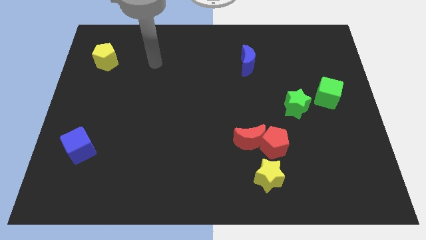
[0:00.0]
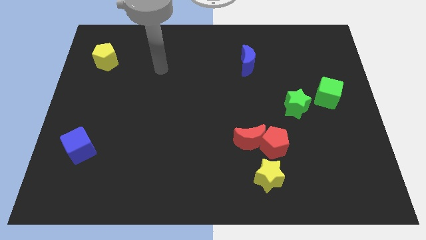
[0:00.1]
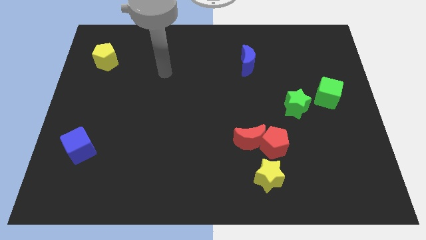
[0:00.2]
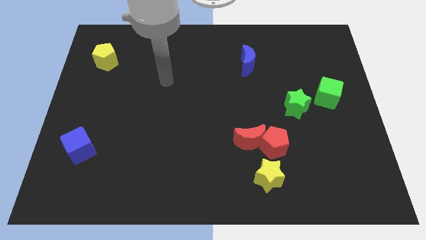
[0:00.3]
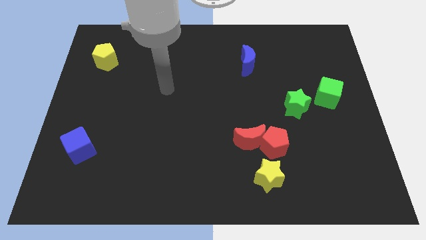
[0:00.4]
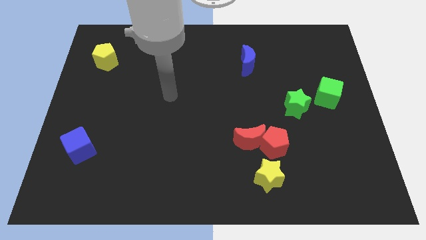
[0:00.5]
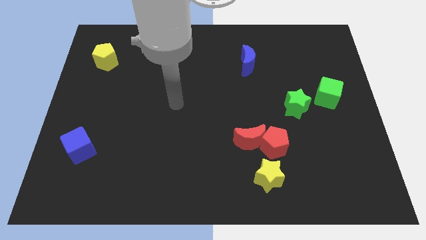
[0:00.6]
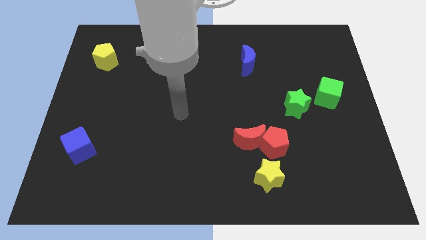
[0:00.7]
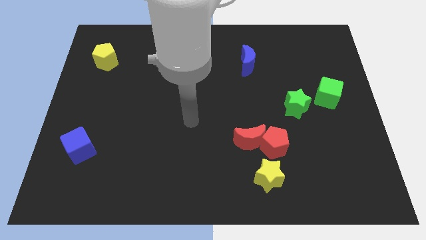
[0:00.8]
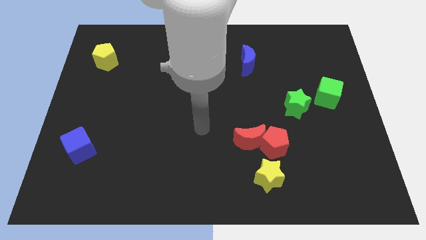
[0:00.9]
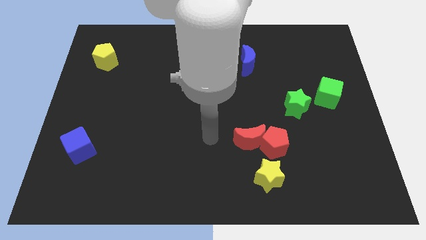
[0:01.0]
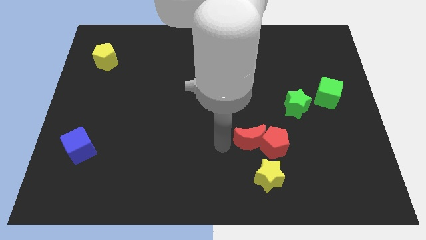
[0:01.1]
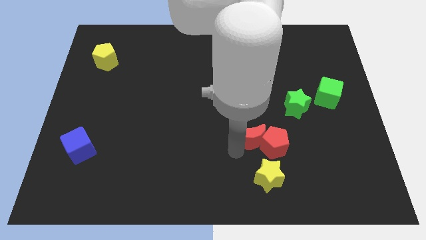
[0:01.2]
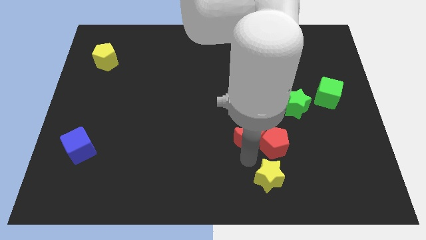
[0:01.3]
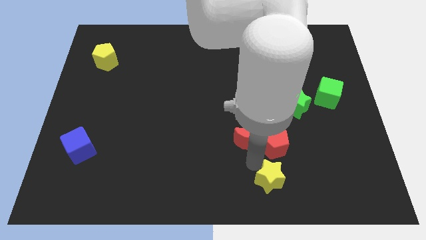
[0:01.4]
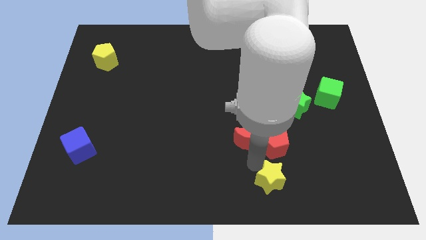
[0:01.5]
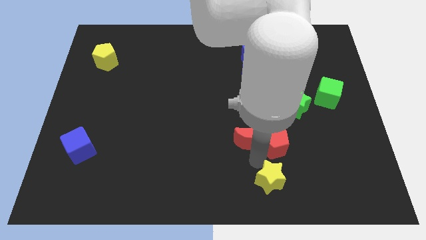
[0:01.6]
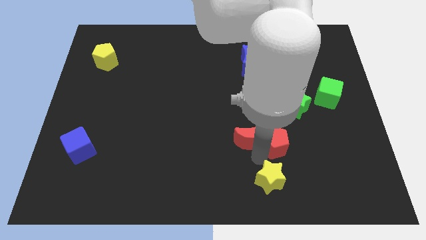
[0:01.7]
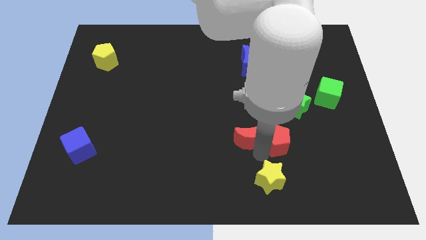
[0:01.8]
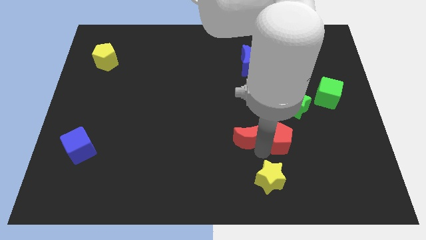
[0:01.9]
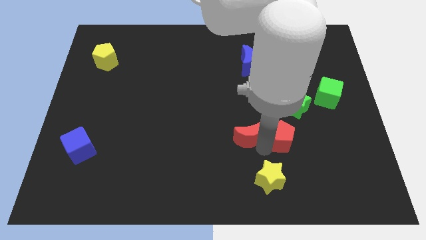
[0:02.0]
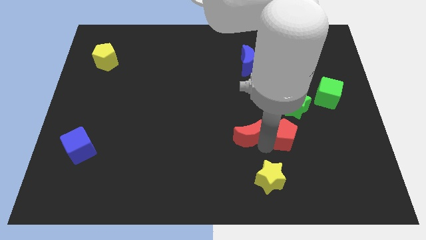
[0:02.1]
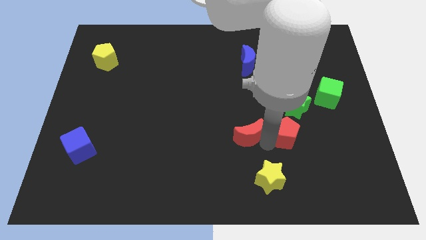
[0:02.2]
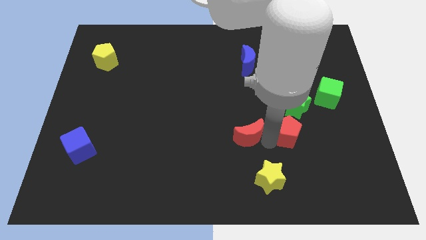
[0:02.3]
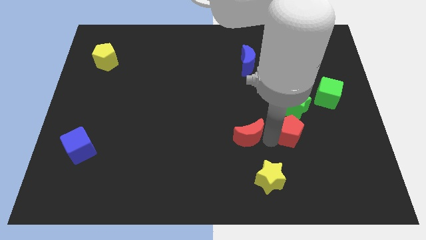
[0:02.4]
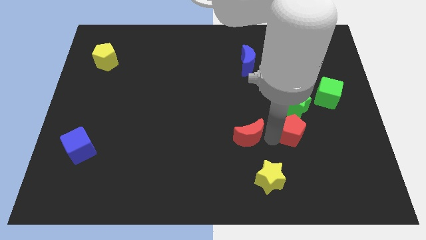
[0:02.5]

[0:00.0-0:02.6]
move the red pentagon away from the red moon and yellow star

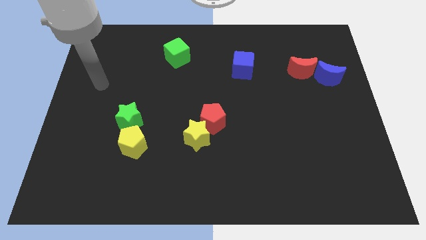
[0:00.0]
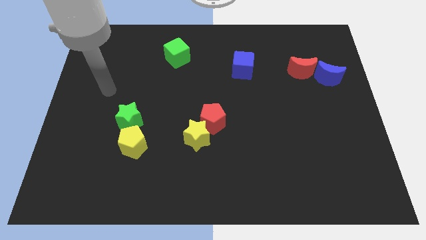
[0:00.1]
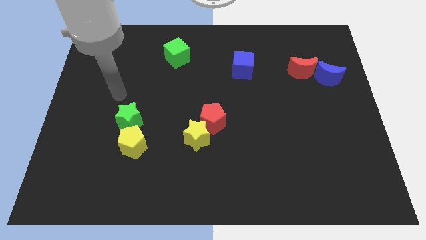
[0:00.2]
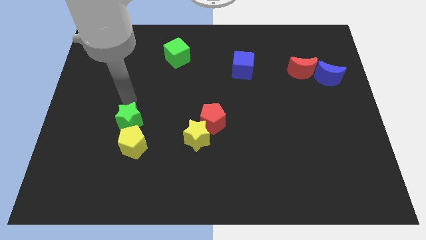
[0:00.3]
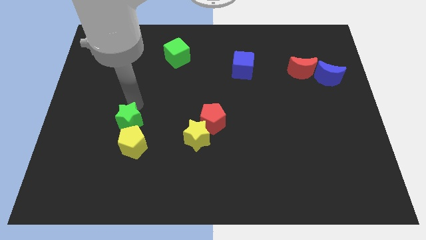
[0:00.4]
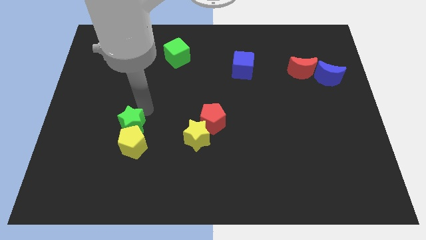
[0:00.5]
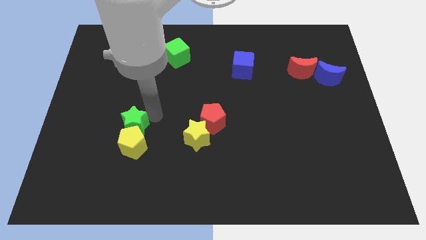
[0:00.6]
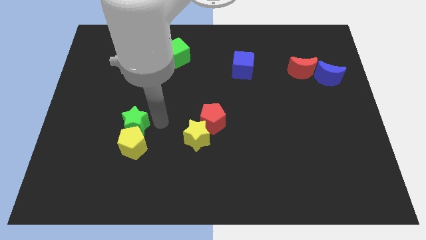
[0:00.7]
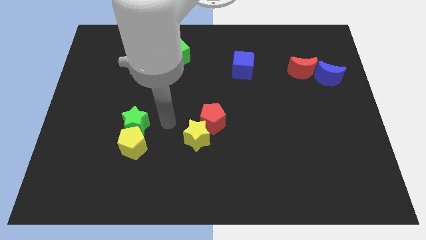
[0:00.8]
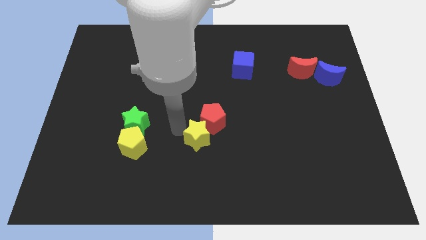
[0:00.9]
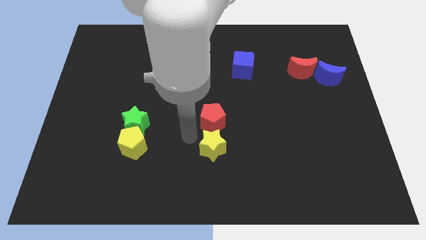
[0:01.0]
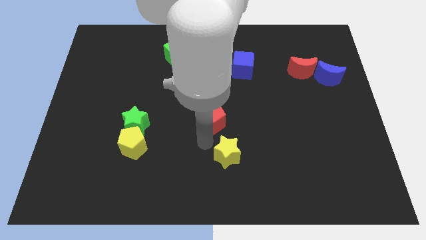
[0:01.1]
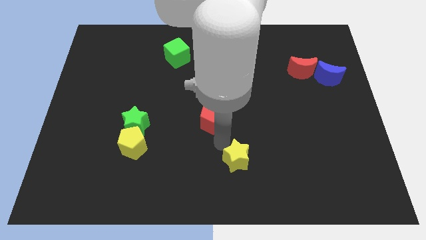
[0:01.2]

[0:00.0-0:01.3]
separate the red pentagon from the yellow star

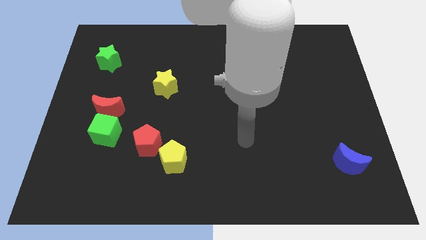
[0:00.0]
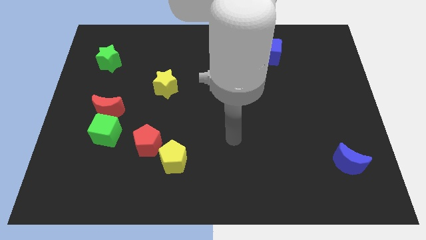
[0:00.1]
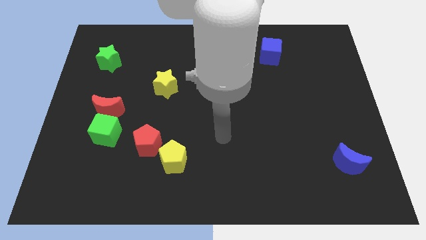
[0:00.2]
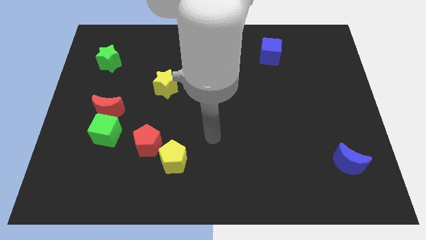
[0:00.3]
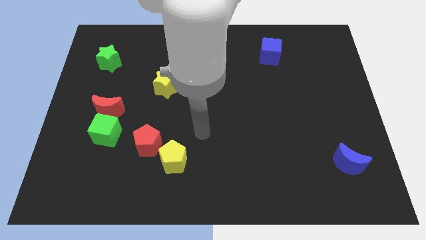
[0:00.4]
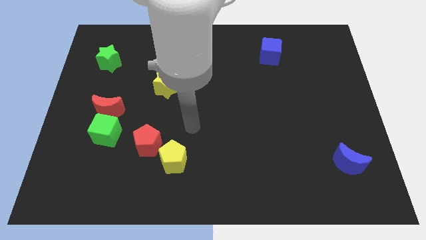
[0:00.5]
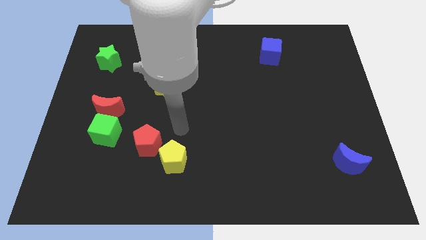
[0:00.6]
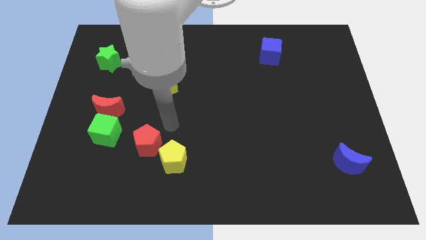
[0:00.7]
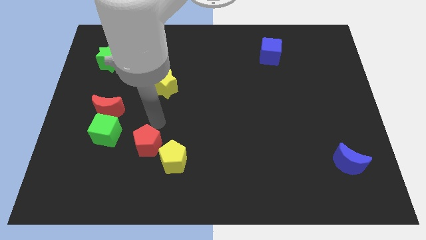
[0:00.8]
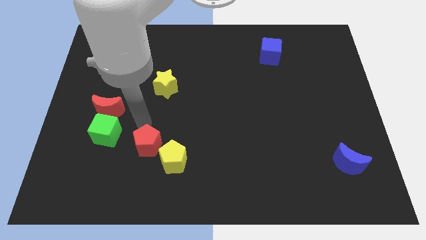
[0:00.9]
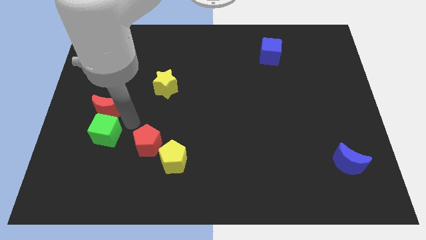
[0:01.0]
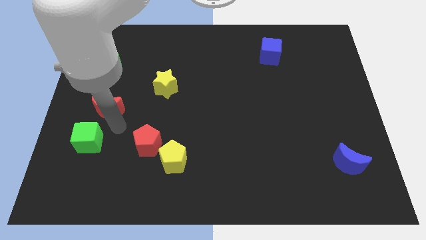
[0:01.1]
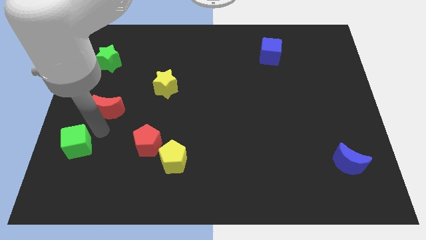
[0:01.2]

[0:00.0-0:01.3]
pull the red moon apart from the green cube

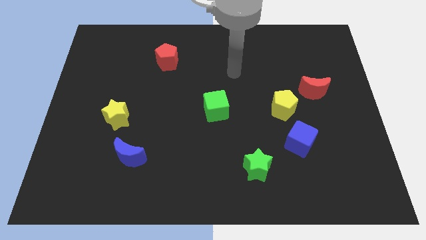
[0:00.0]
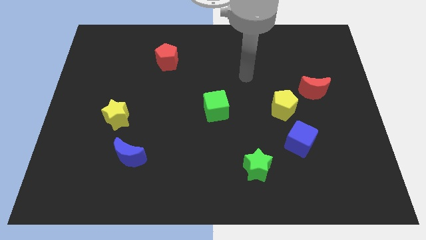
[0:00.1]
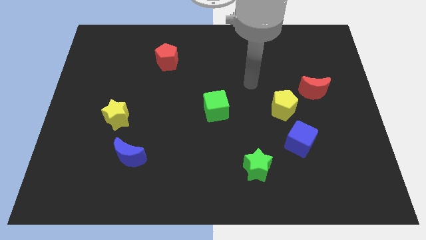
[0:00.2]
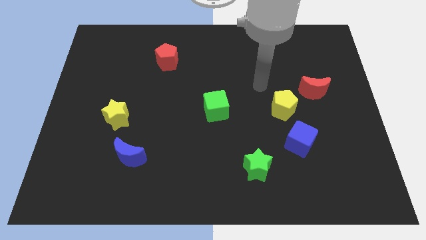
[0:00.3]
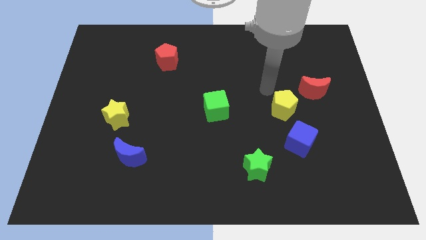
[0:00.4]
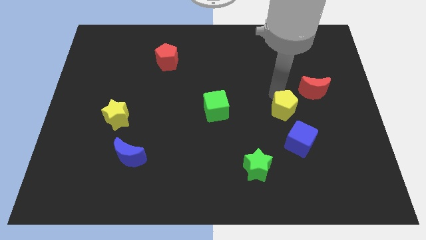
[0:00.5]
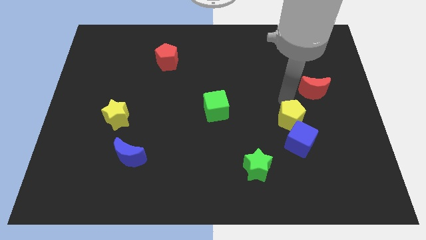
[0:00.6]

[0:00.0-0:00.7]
pull the red moon apart from the yellow pentagon

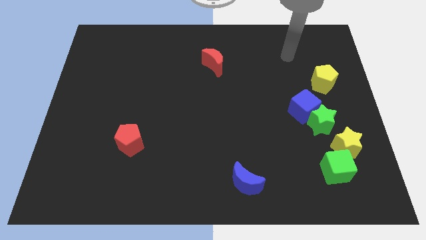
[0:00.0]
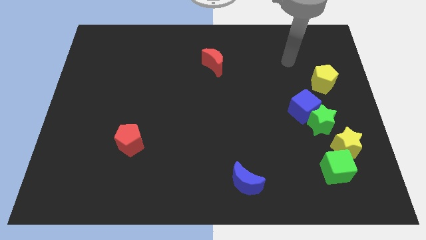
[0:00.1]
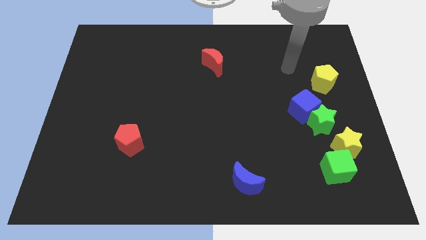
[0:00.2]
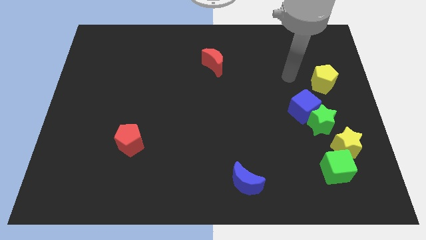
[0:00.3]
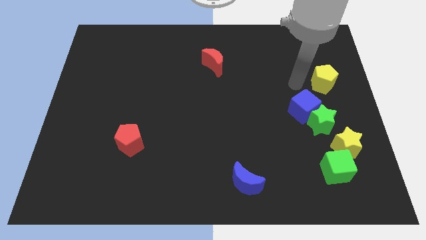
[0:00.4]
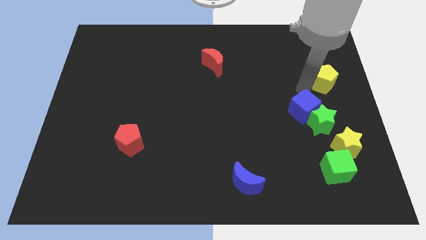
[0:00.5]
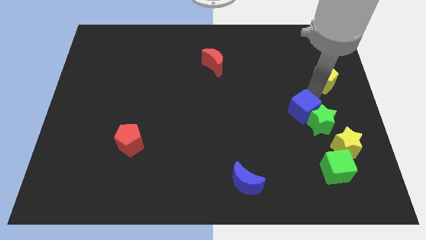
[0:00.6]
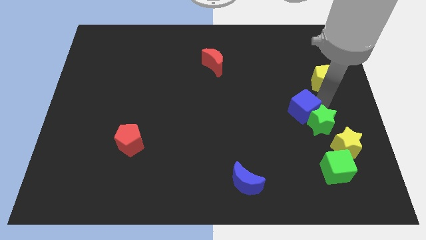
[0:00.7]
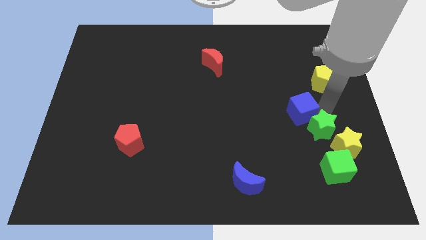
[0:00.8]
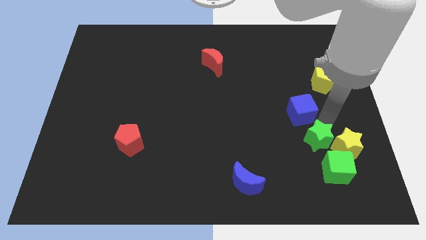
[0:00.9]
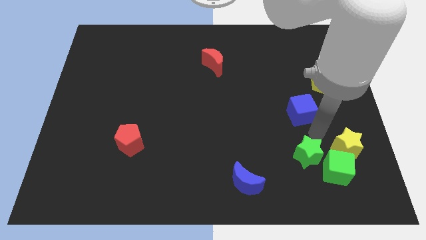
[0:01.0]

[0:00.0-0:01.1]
separate the blue cube from the green star

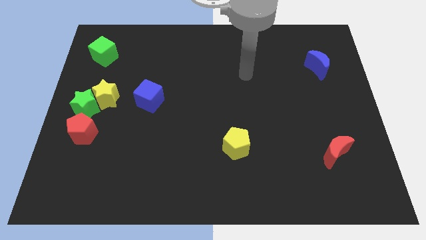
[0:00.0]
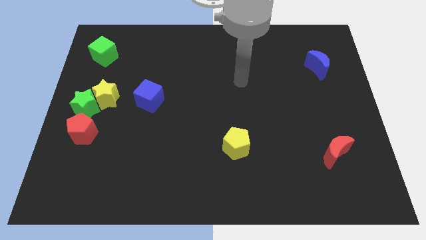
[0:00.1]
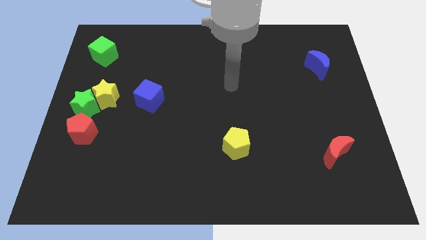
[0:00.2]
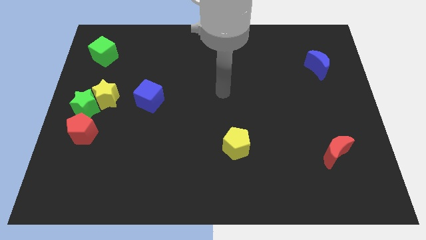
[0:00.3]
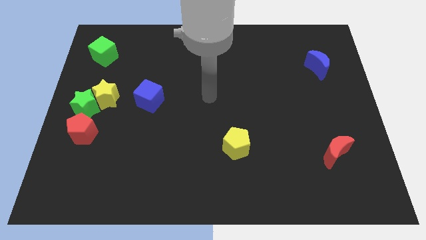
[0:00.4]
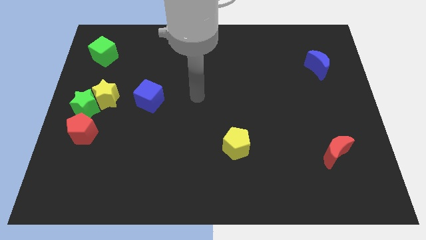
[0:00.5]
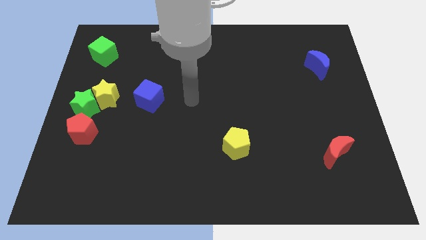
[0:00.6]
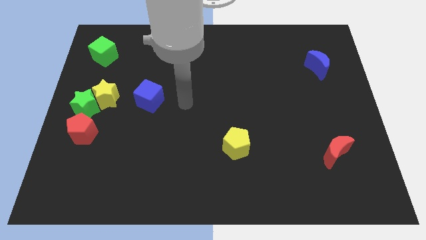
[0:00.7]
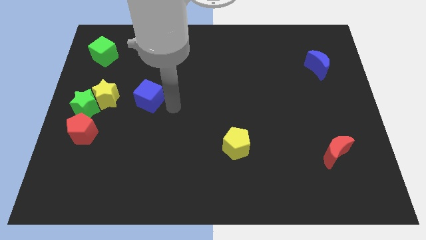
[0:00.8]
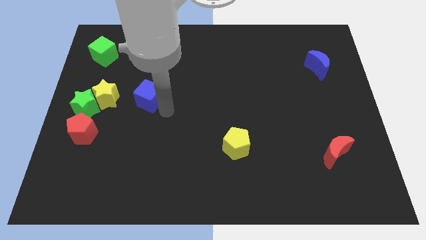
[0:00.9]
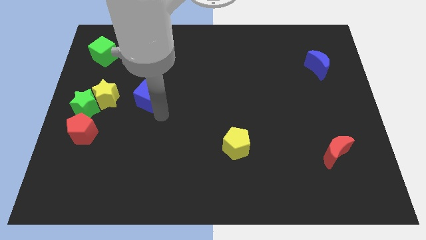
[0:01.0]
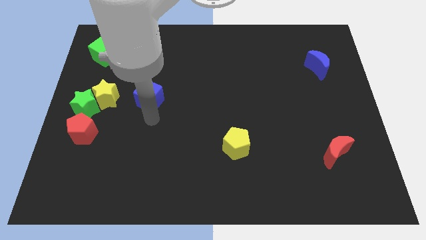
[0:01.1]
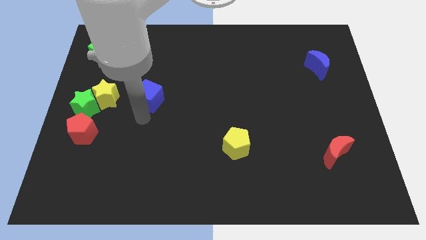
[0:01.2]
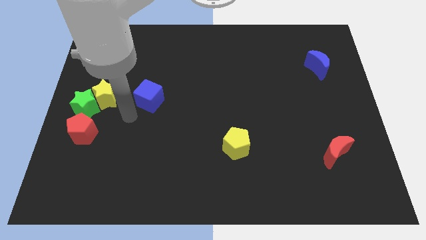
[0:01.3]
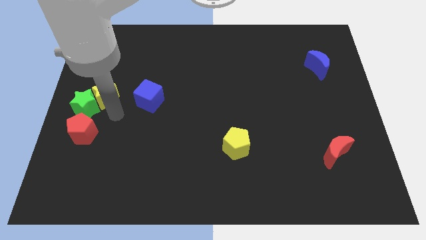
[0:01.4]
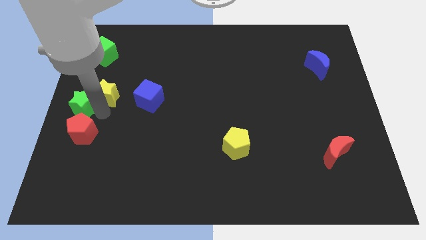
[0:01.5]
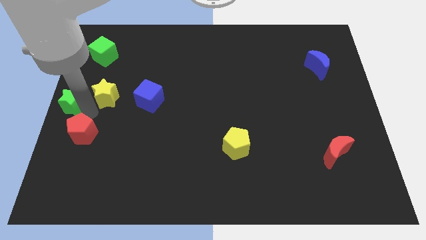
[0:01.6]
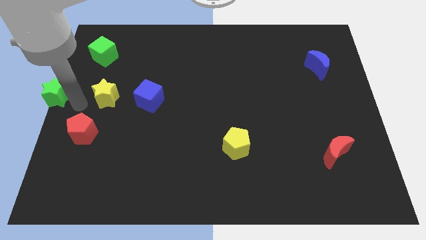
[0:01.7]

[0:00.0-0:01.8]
separate the yellow star from the green star

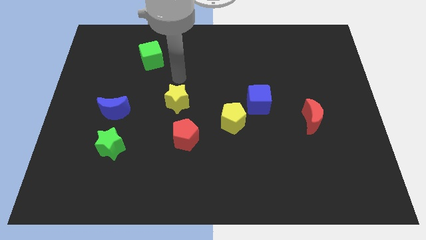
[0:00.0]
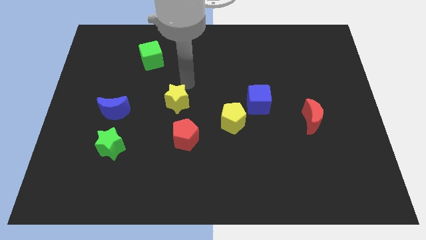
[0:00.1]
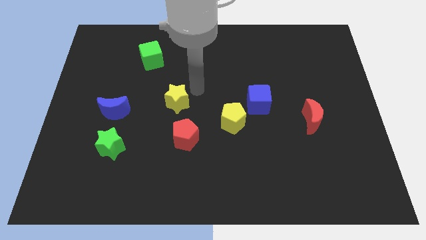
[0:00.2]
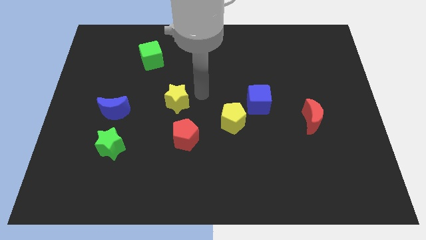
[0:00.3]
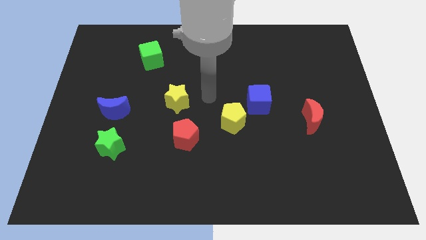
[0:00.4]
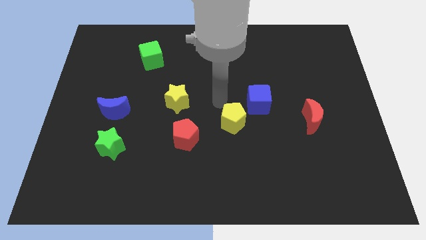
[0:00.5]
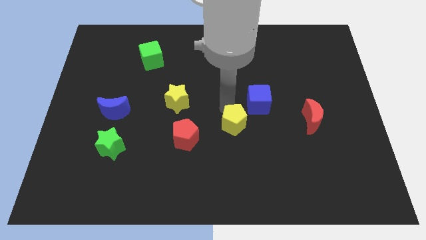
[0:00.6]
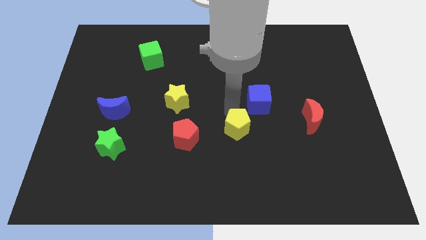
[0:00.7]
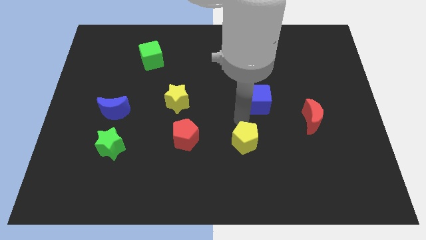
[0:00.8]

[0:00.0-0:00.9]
move the blue cube away from the yellow pentagon
